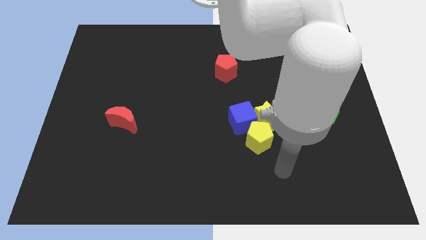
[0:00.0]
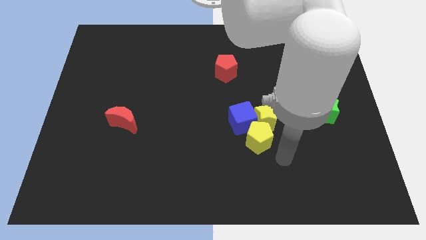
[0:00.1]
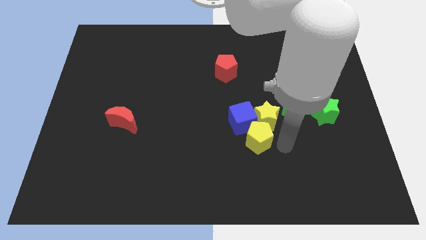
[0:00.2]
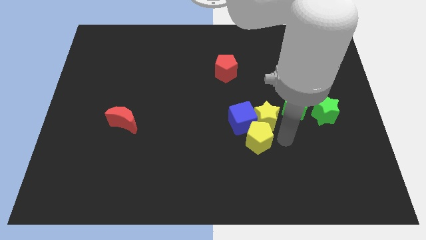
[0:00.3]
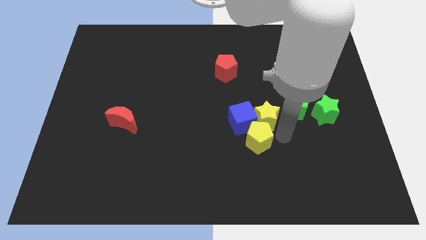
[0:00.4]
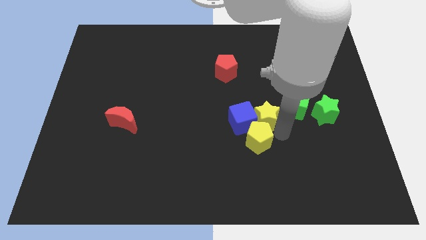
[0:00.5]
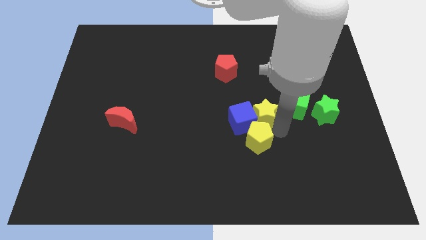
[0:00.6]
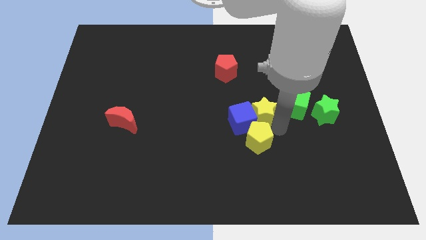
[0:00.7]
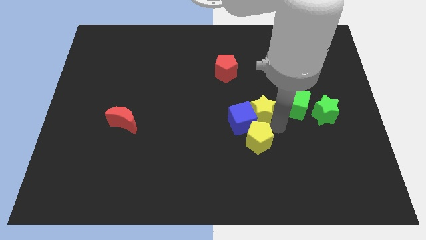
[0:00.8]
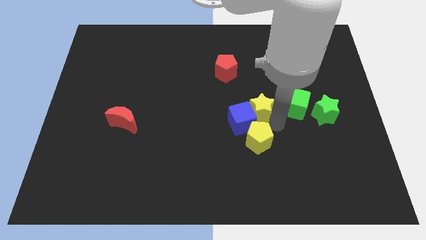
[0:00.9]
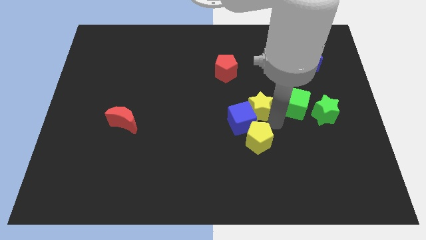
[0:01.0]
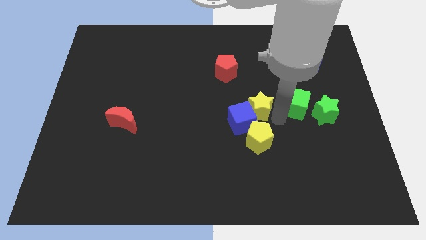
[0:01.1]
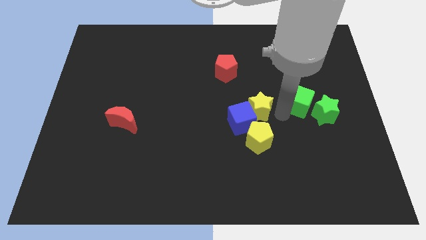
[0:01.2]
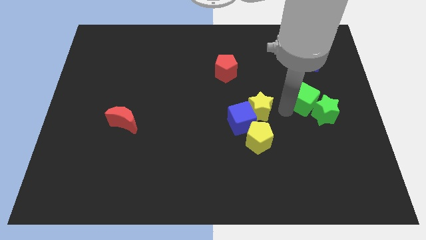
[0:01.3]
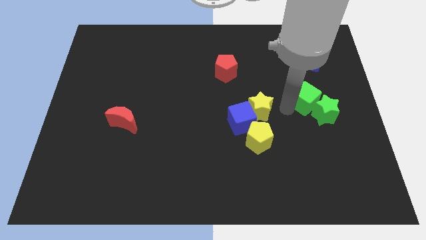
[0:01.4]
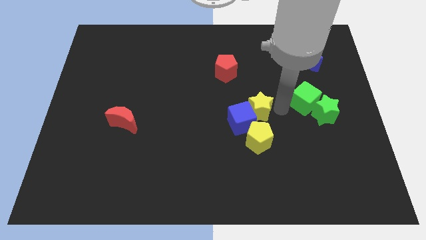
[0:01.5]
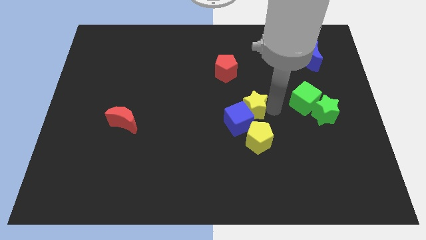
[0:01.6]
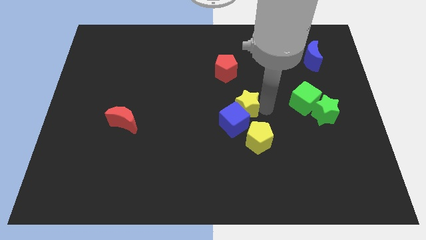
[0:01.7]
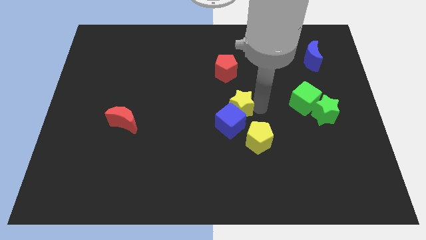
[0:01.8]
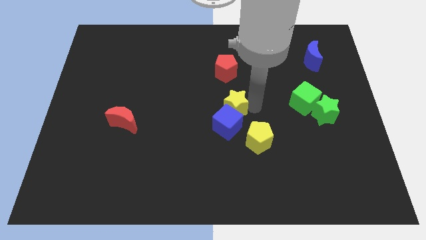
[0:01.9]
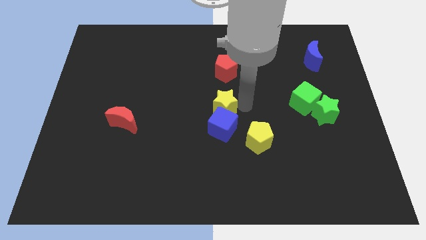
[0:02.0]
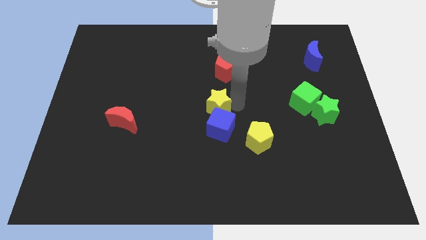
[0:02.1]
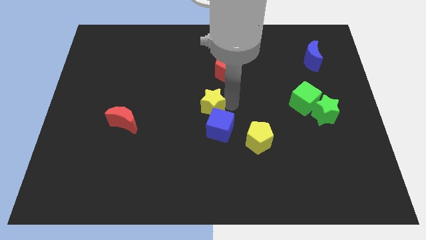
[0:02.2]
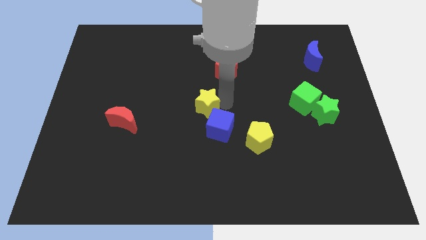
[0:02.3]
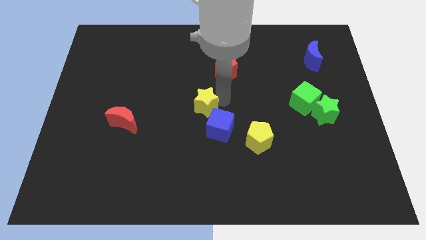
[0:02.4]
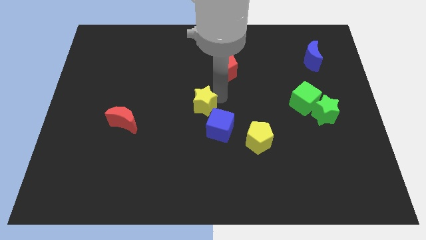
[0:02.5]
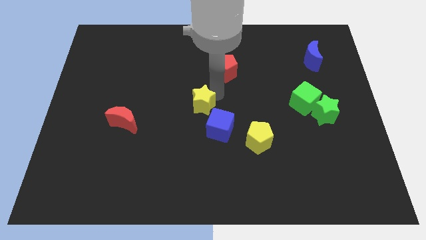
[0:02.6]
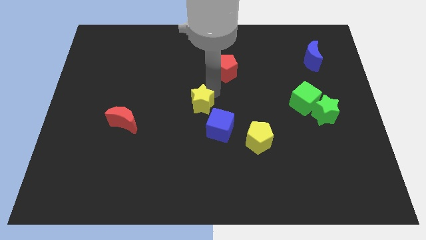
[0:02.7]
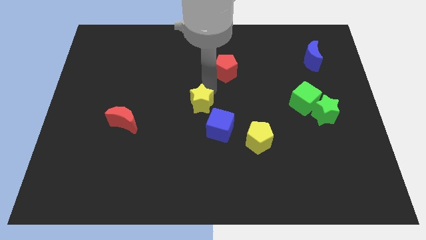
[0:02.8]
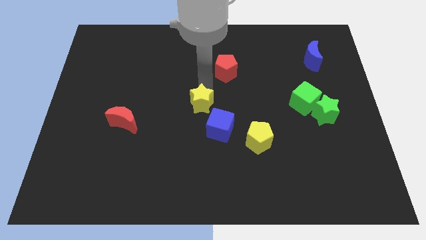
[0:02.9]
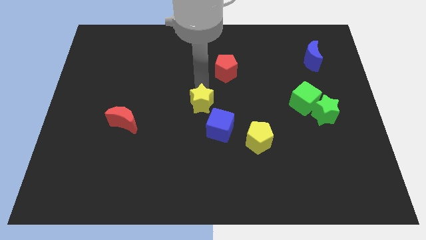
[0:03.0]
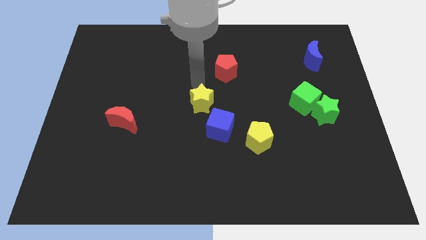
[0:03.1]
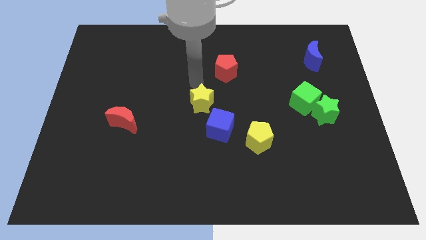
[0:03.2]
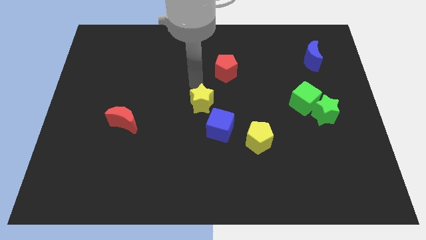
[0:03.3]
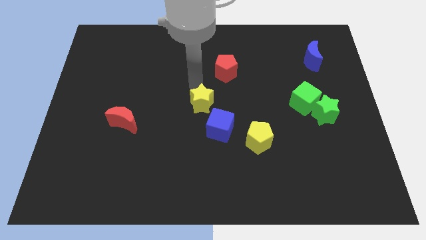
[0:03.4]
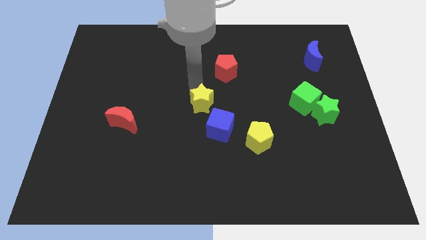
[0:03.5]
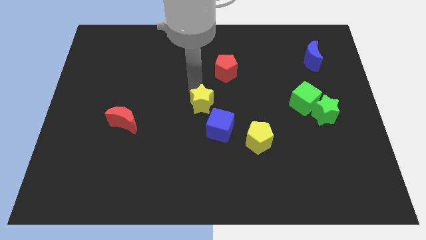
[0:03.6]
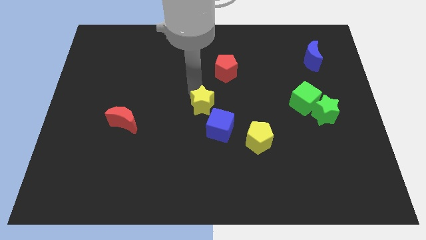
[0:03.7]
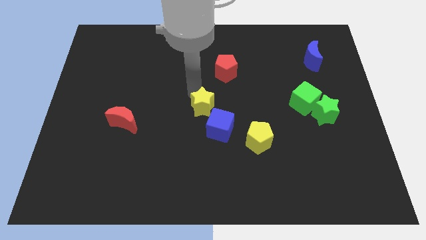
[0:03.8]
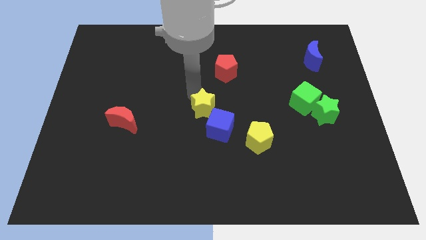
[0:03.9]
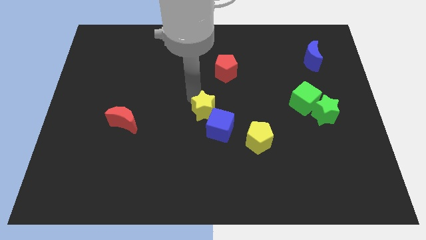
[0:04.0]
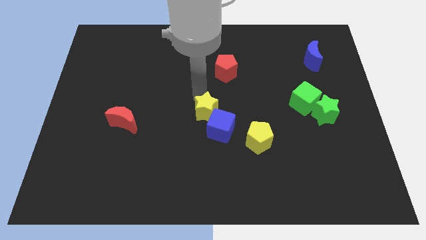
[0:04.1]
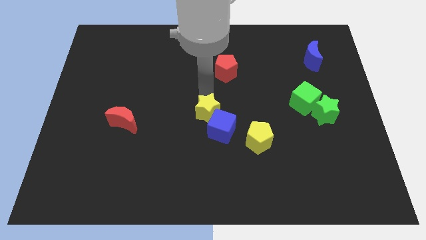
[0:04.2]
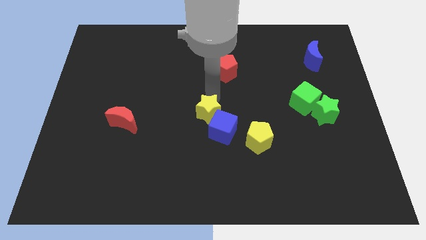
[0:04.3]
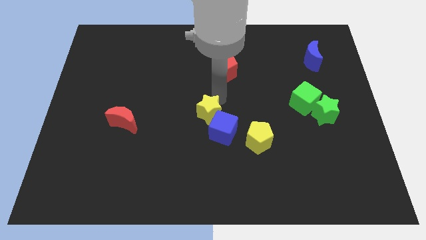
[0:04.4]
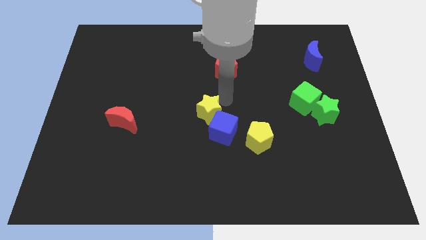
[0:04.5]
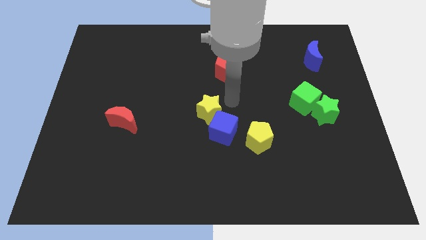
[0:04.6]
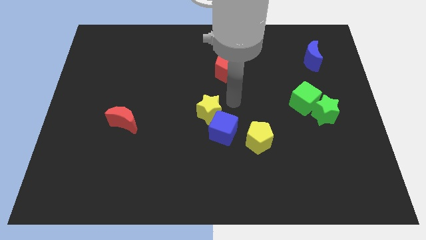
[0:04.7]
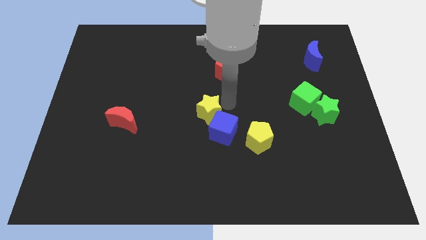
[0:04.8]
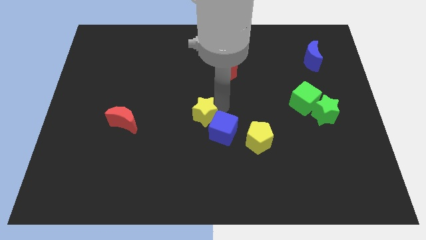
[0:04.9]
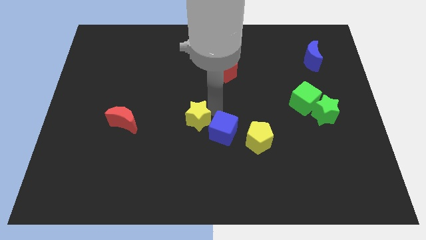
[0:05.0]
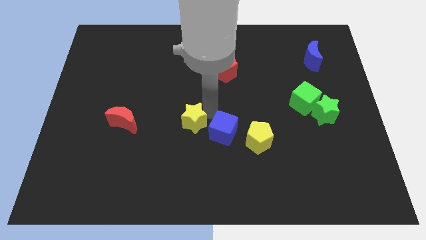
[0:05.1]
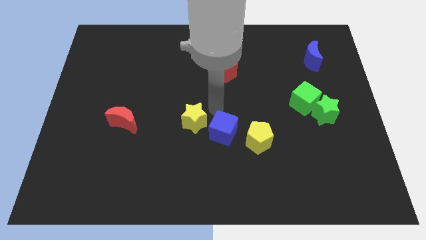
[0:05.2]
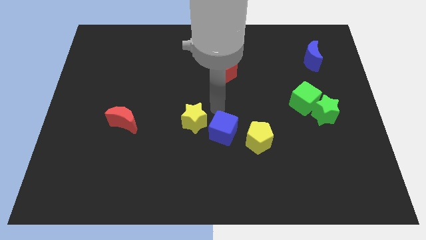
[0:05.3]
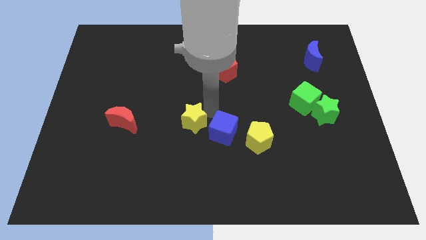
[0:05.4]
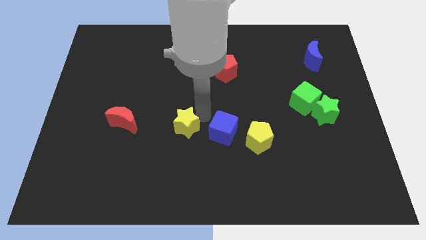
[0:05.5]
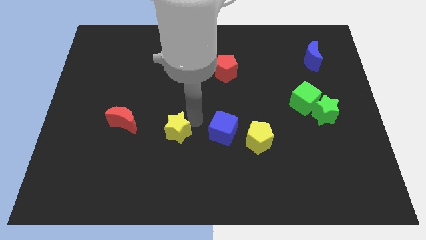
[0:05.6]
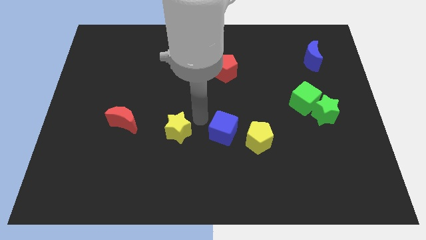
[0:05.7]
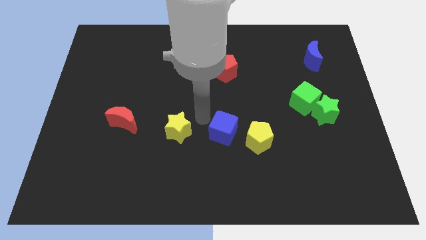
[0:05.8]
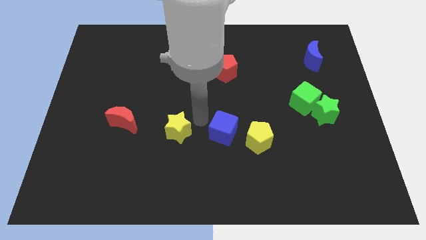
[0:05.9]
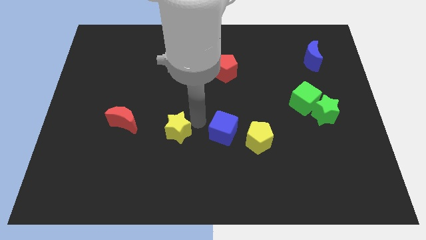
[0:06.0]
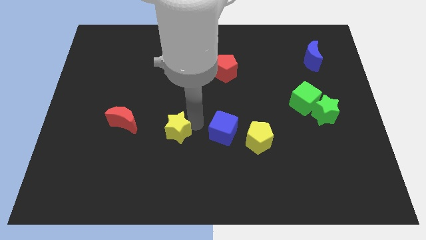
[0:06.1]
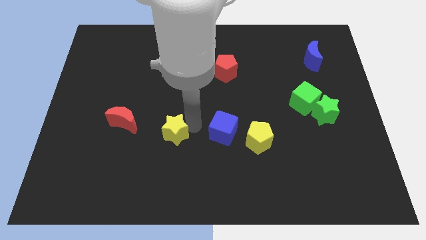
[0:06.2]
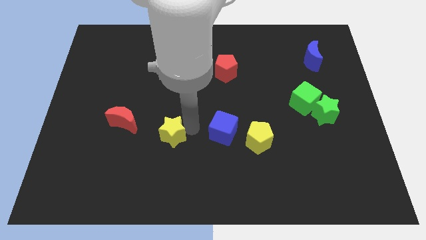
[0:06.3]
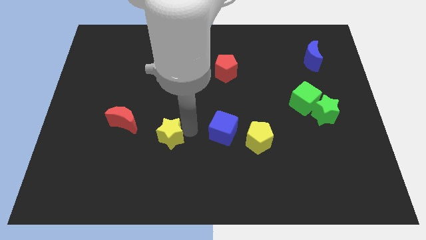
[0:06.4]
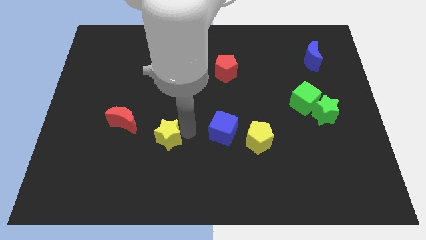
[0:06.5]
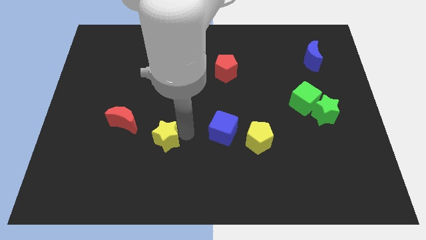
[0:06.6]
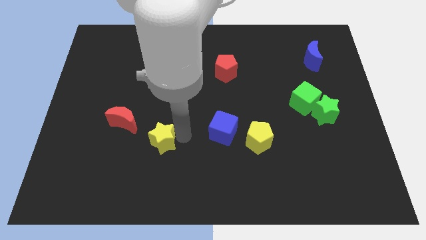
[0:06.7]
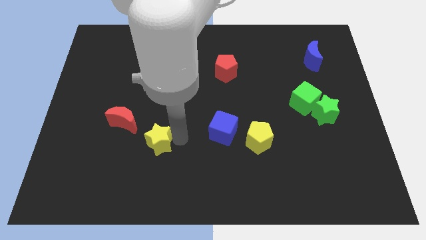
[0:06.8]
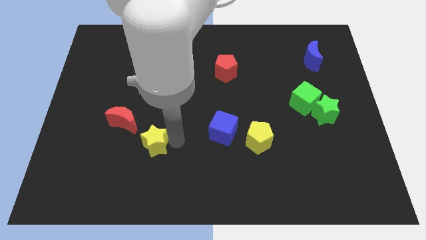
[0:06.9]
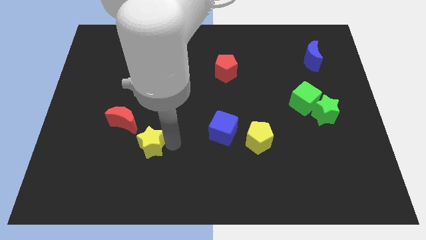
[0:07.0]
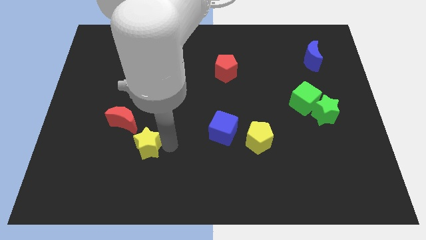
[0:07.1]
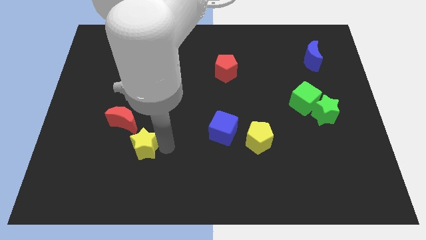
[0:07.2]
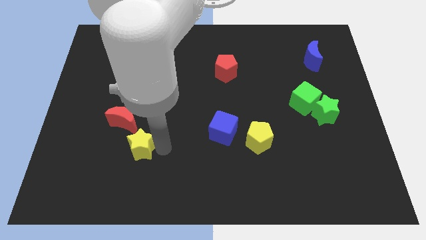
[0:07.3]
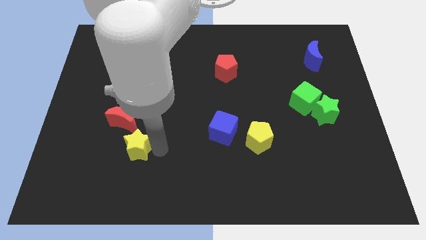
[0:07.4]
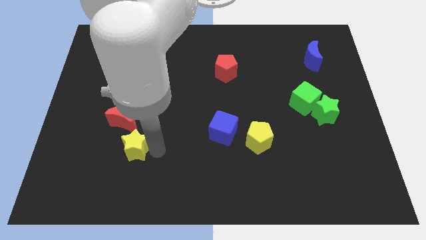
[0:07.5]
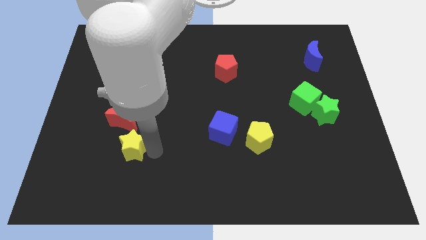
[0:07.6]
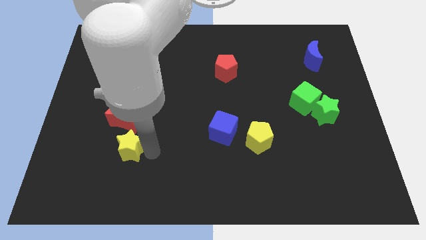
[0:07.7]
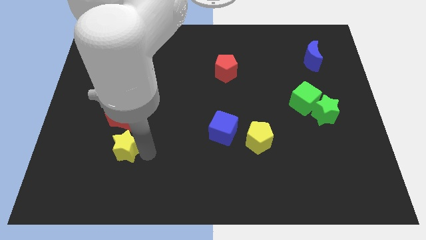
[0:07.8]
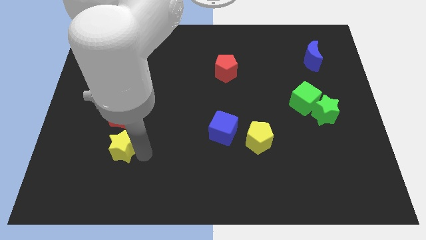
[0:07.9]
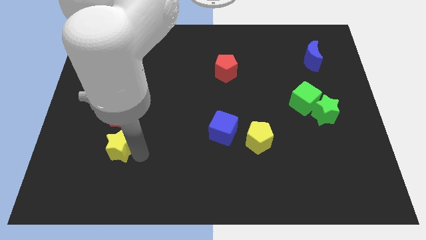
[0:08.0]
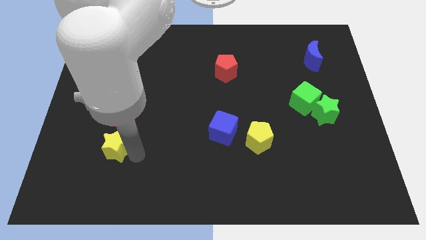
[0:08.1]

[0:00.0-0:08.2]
slide the yellow star to the bottom left of the red moon
